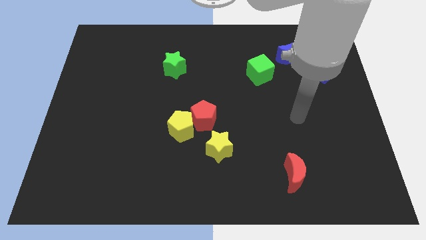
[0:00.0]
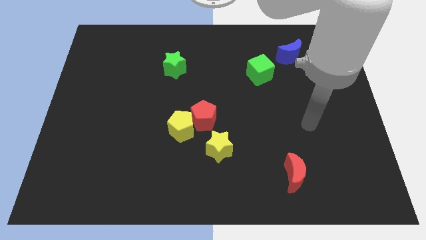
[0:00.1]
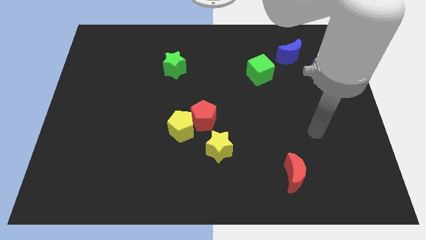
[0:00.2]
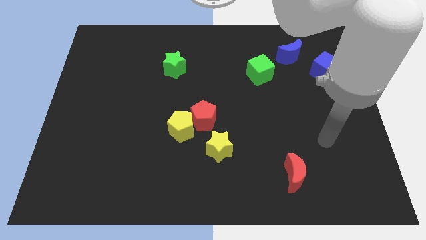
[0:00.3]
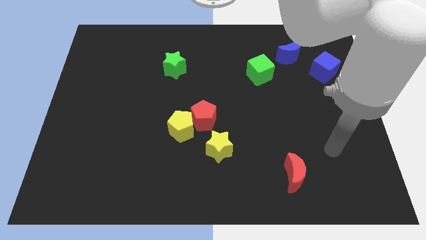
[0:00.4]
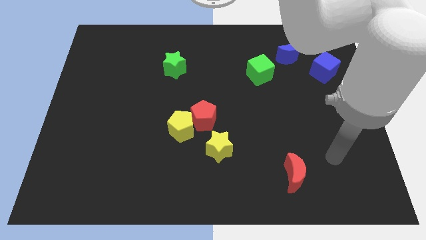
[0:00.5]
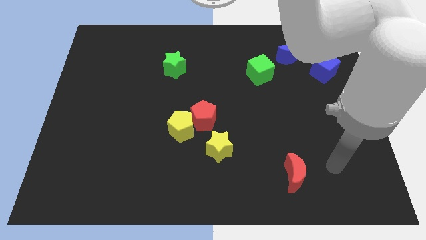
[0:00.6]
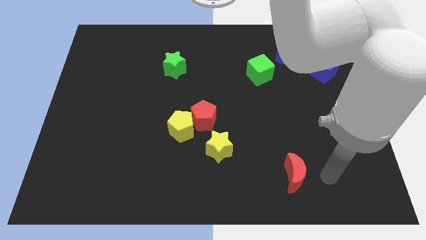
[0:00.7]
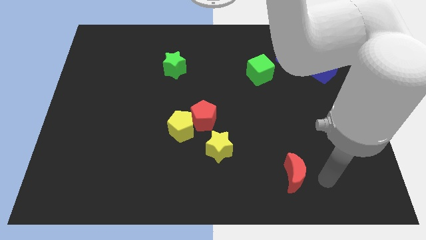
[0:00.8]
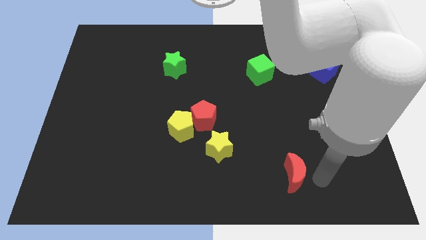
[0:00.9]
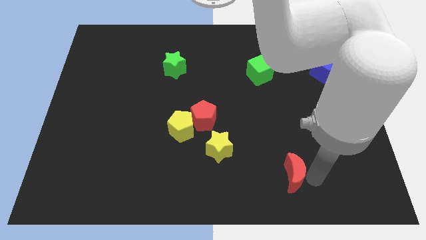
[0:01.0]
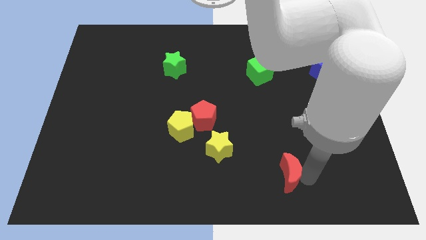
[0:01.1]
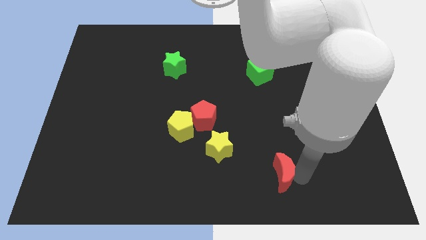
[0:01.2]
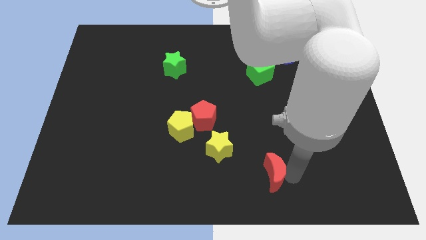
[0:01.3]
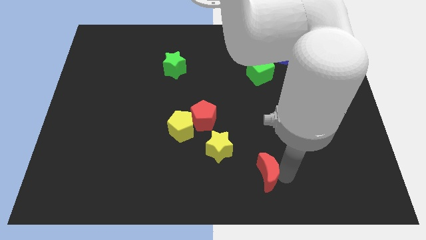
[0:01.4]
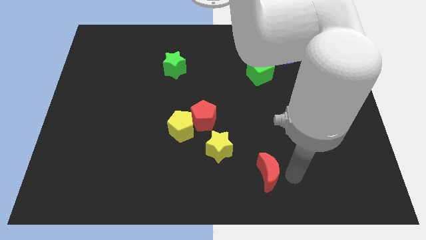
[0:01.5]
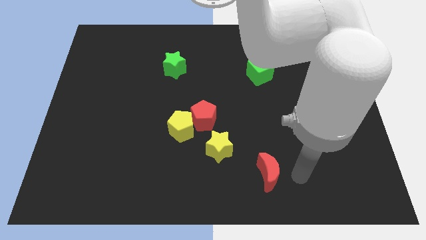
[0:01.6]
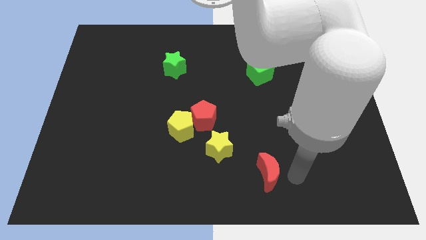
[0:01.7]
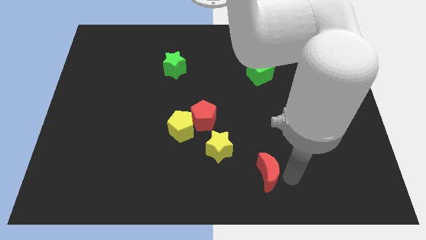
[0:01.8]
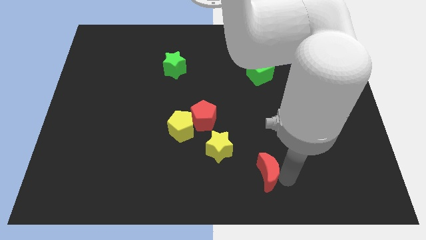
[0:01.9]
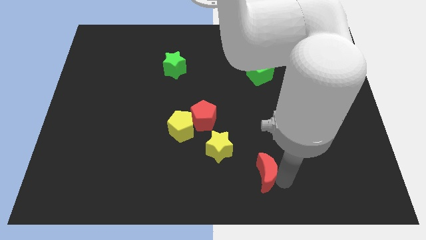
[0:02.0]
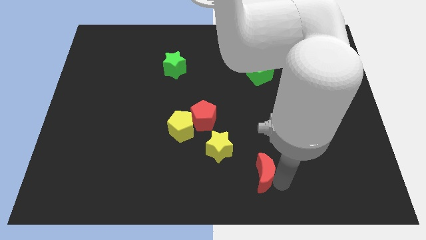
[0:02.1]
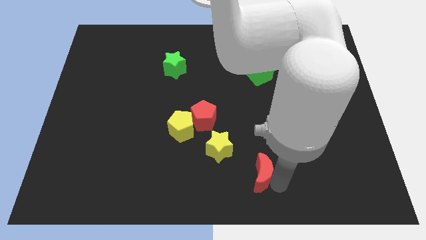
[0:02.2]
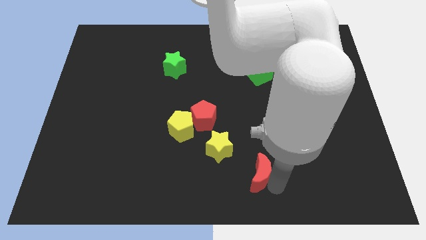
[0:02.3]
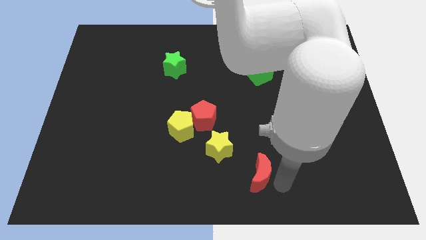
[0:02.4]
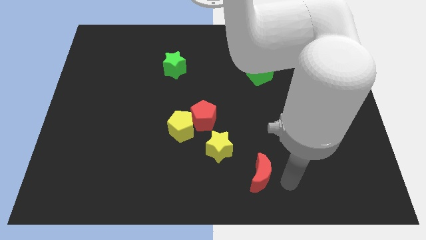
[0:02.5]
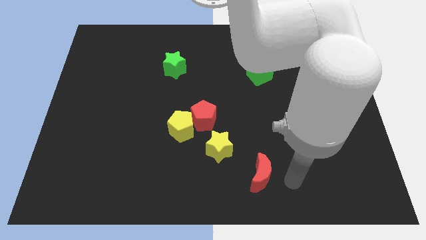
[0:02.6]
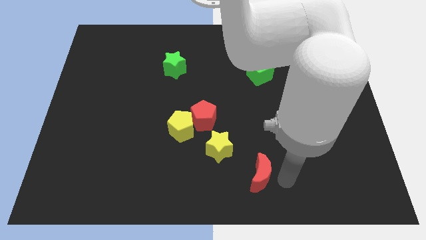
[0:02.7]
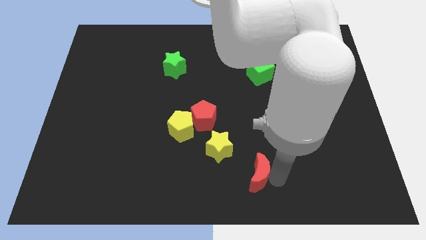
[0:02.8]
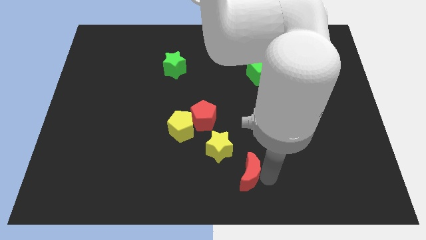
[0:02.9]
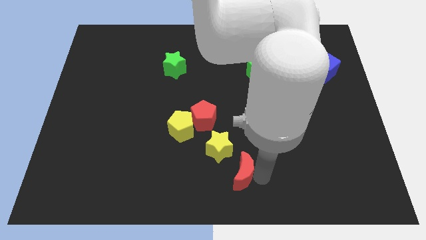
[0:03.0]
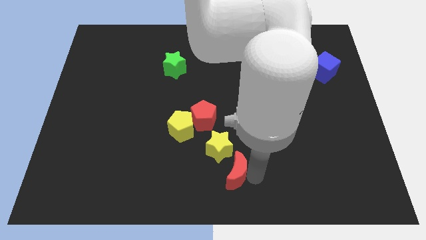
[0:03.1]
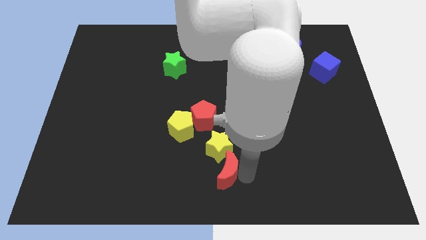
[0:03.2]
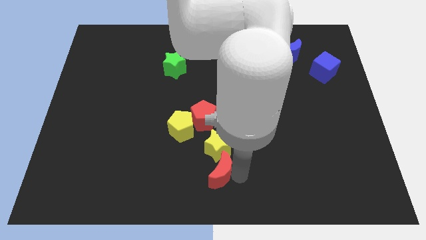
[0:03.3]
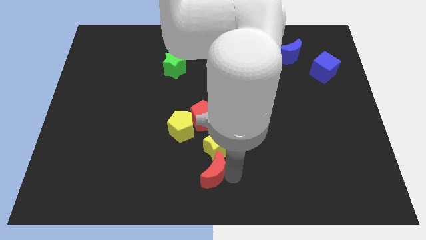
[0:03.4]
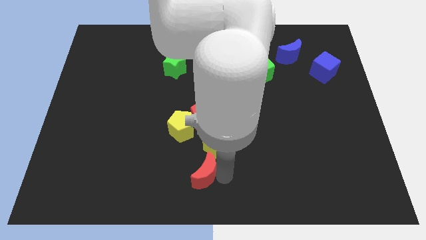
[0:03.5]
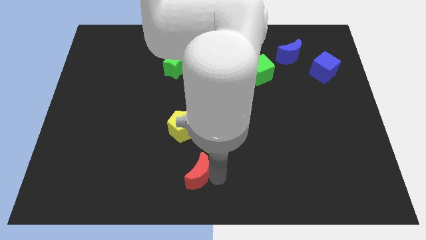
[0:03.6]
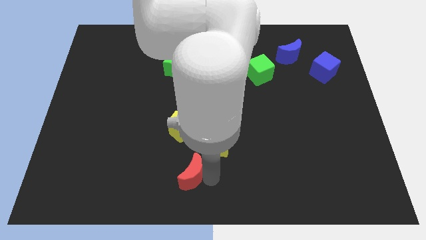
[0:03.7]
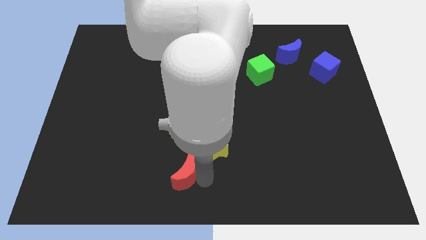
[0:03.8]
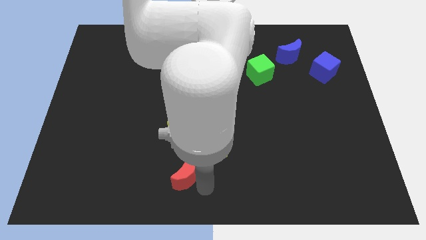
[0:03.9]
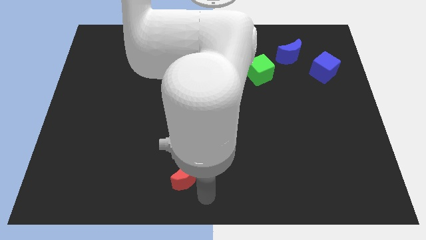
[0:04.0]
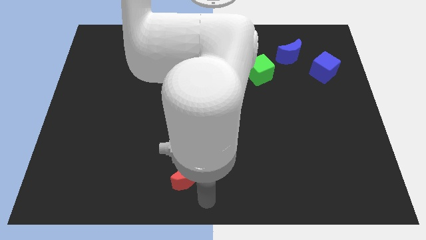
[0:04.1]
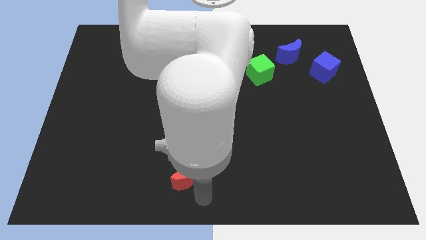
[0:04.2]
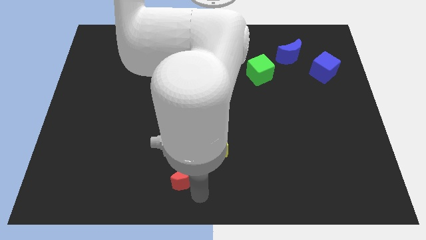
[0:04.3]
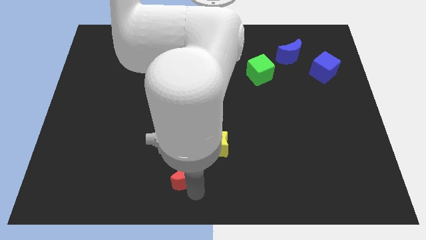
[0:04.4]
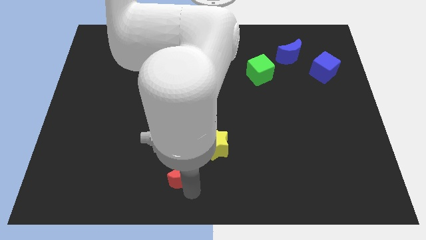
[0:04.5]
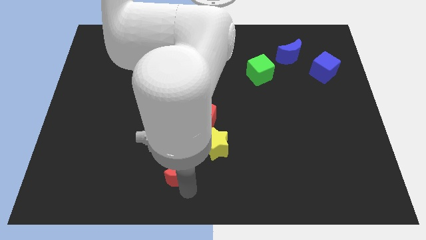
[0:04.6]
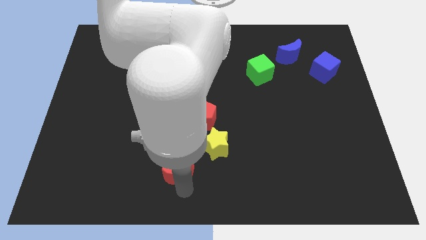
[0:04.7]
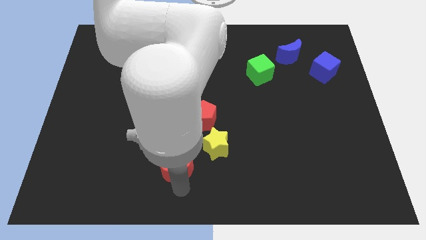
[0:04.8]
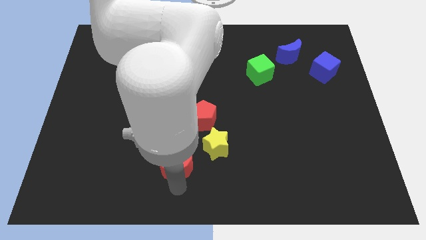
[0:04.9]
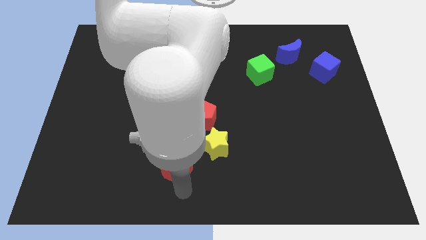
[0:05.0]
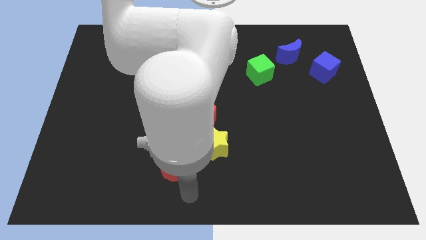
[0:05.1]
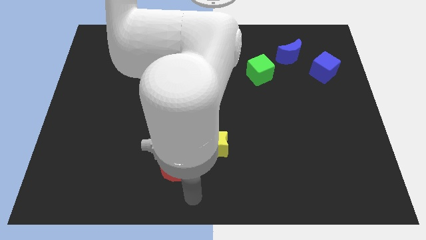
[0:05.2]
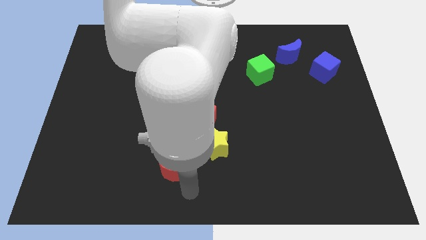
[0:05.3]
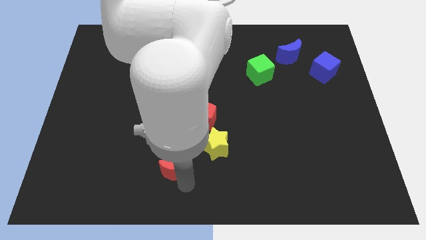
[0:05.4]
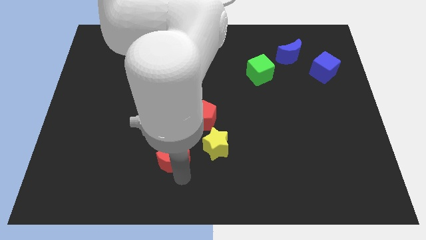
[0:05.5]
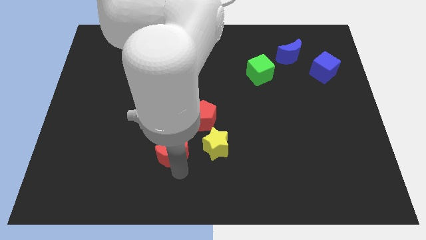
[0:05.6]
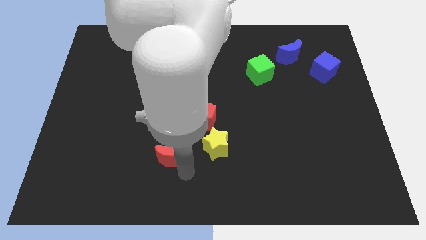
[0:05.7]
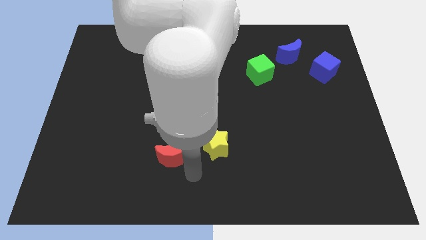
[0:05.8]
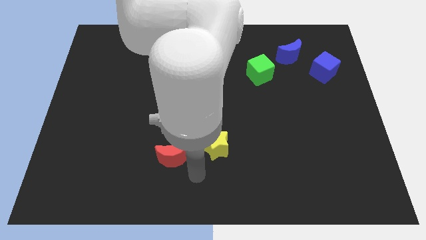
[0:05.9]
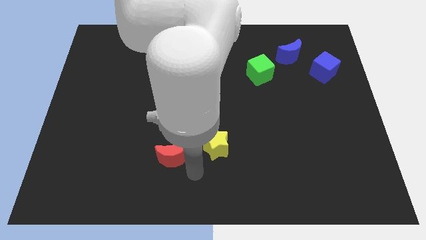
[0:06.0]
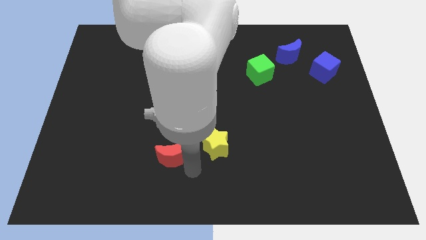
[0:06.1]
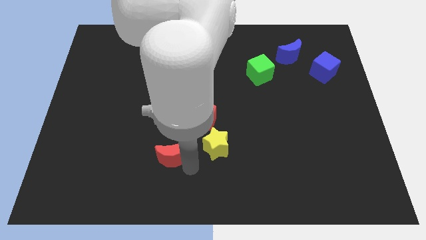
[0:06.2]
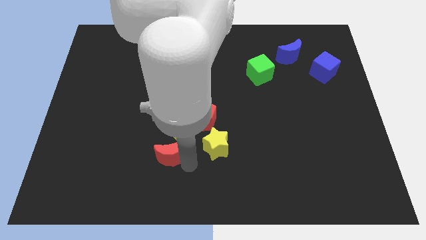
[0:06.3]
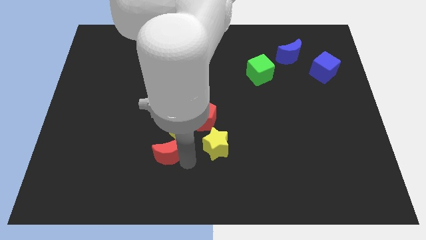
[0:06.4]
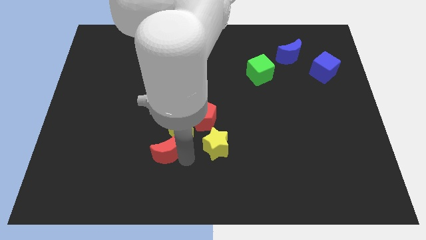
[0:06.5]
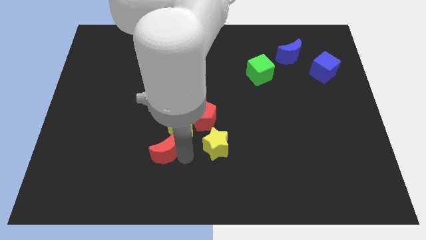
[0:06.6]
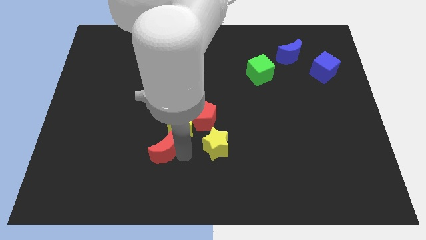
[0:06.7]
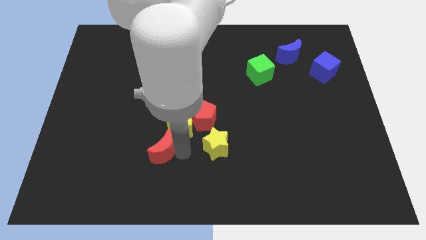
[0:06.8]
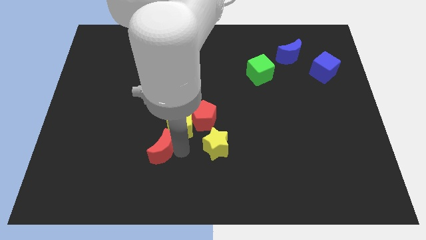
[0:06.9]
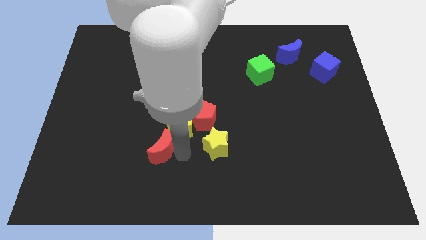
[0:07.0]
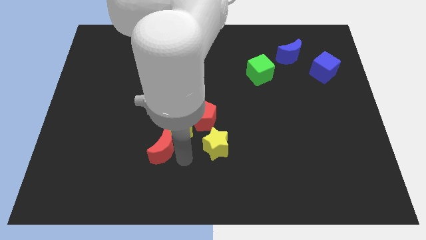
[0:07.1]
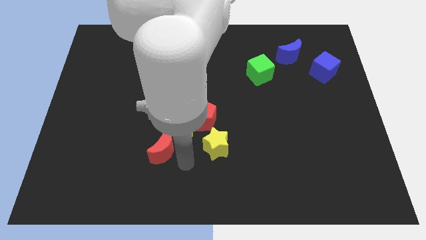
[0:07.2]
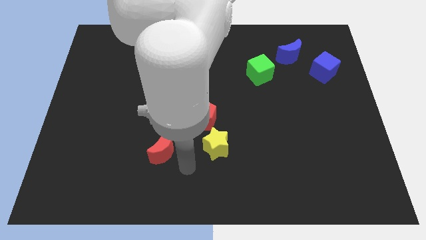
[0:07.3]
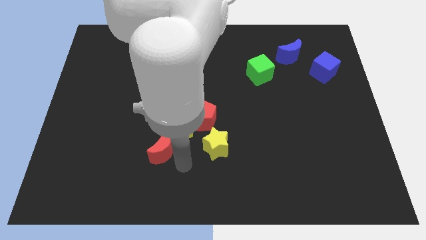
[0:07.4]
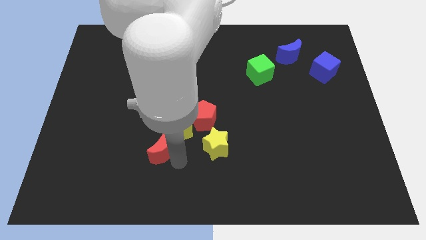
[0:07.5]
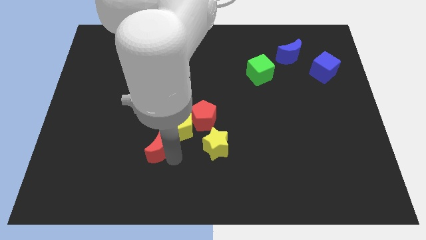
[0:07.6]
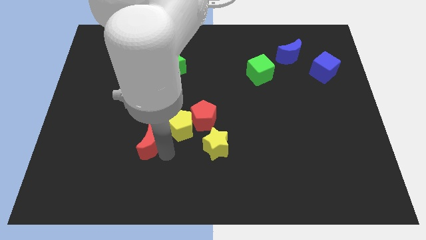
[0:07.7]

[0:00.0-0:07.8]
slide the red moon just left of the yellow pentagon
